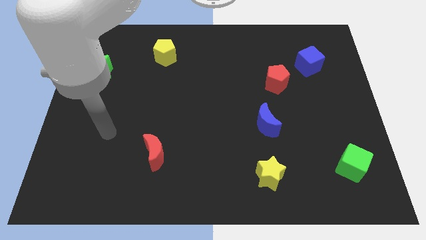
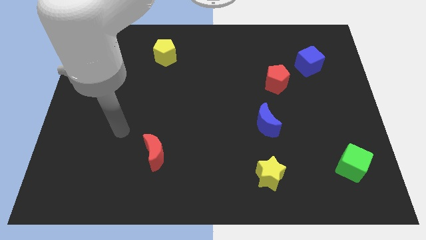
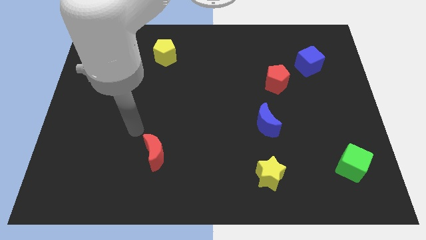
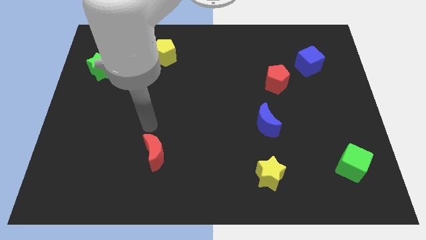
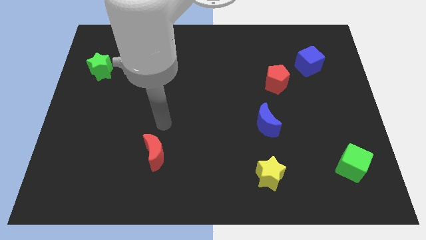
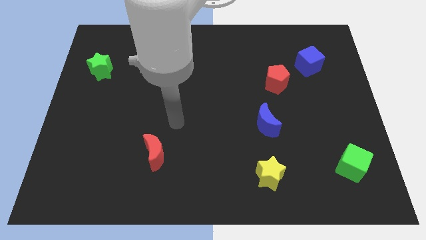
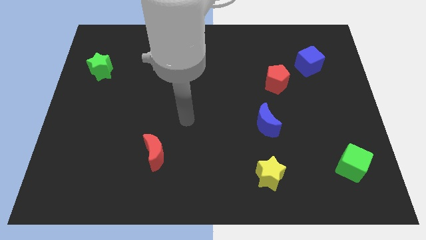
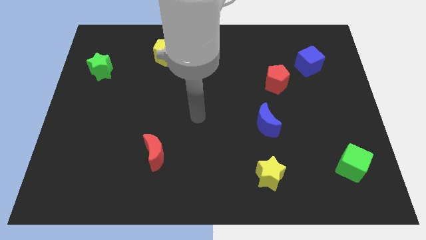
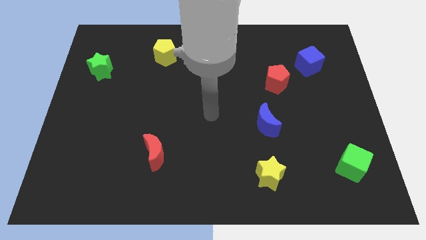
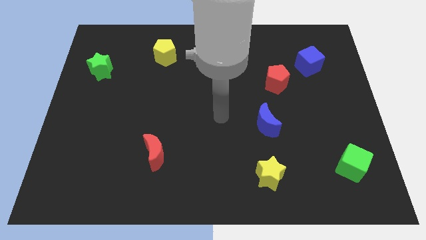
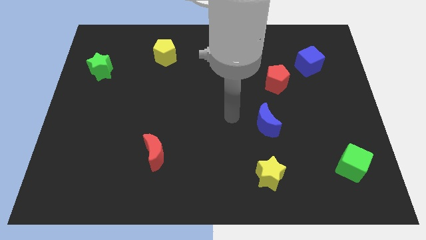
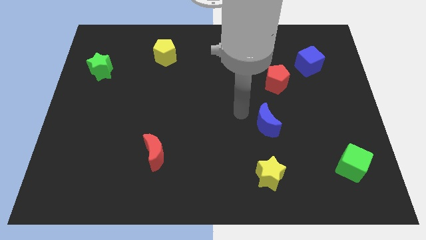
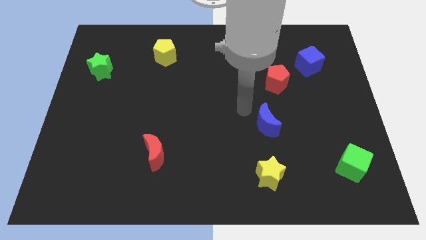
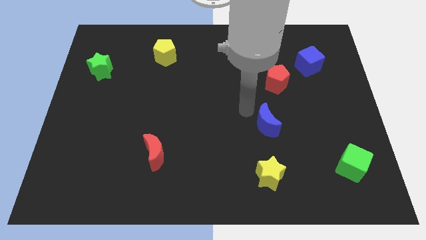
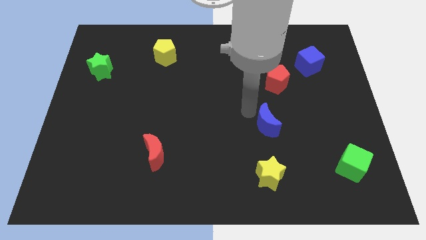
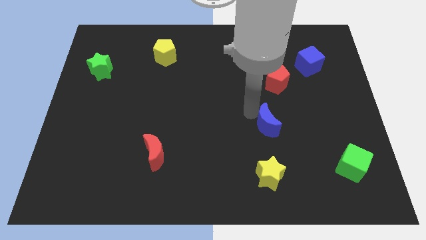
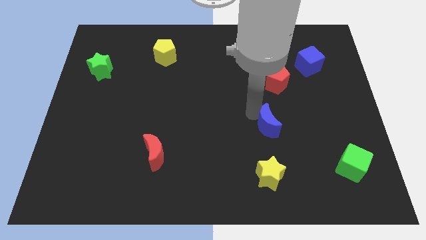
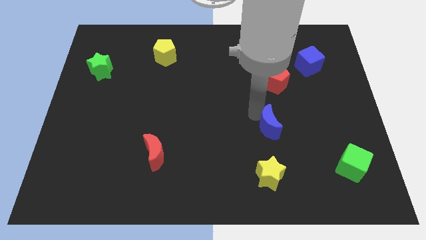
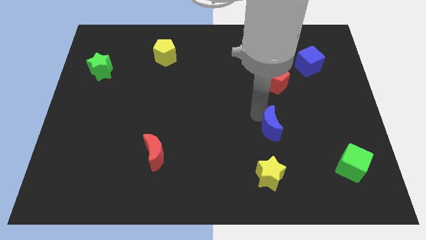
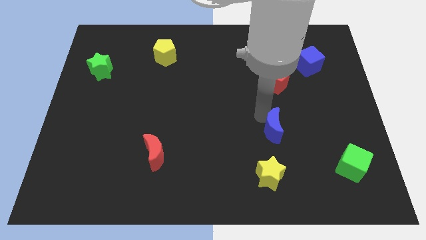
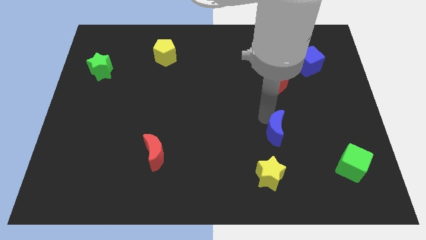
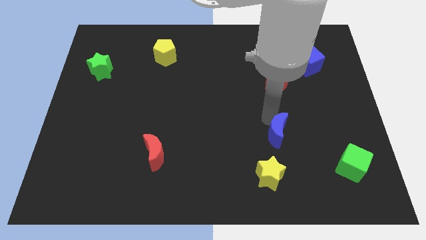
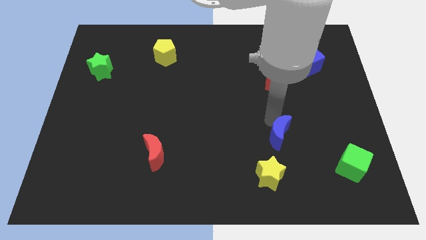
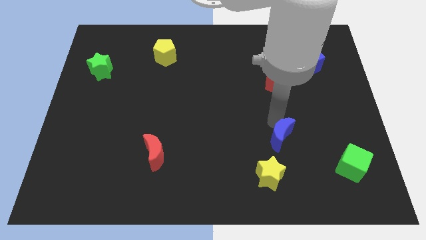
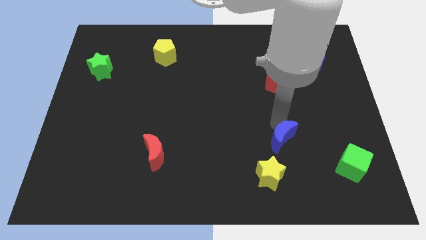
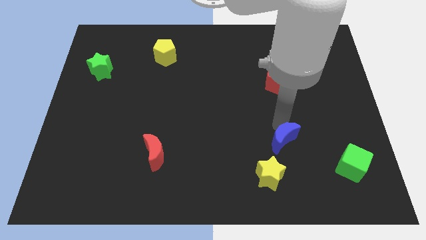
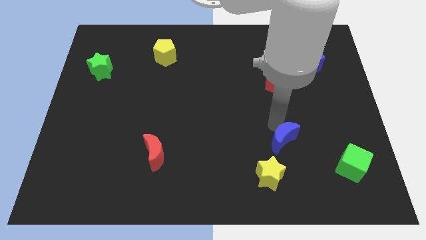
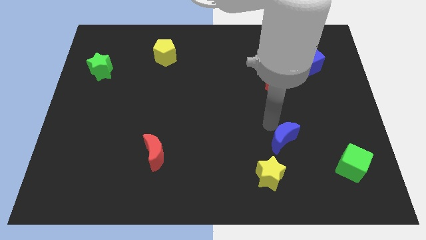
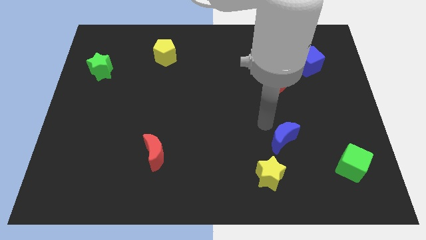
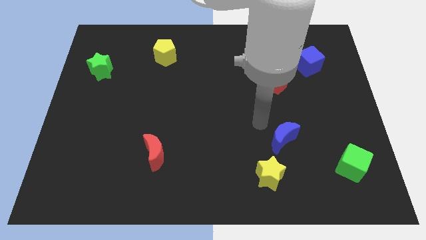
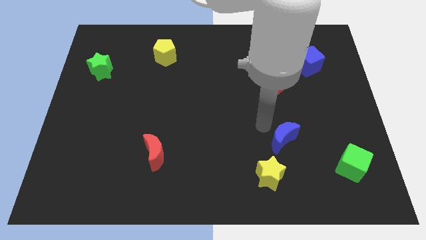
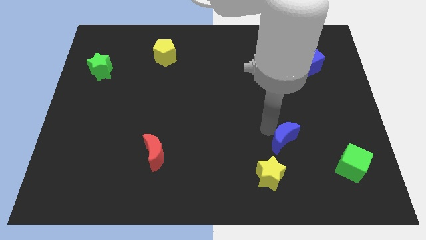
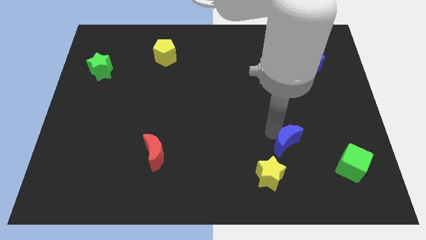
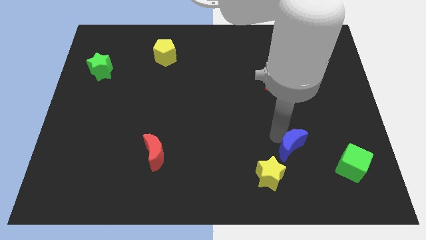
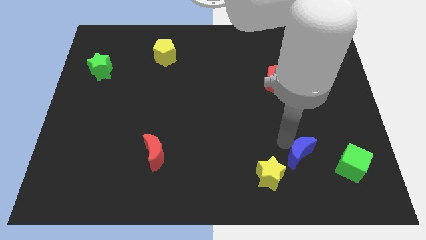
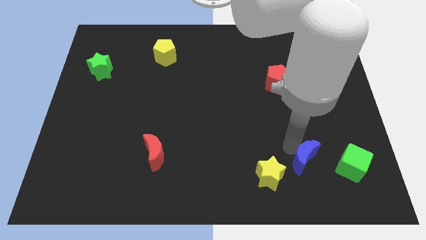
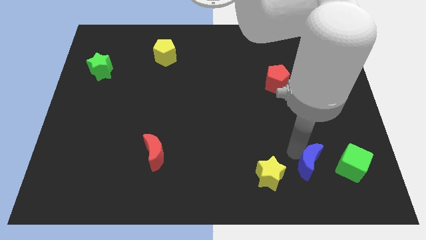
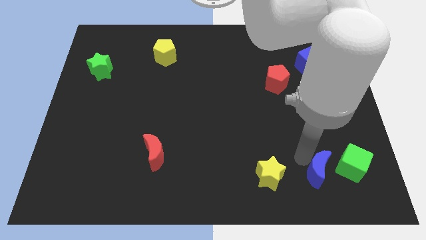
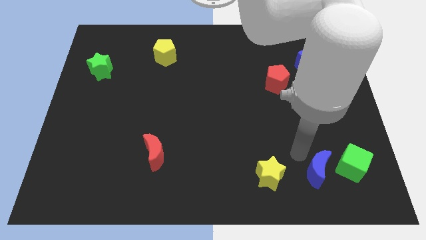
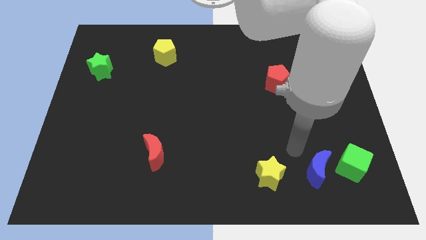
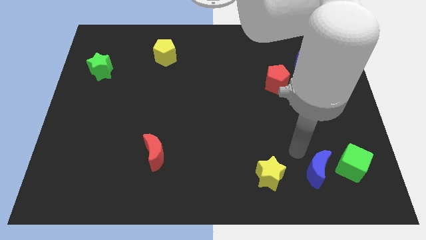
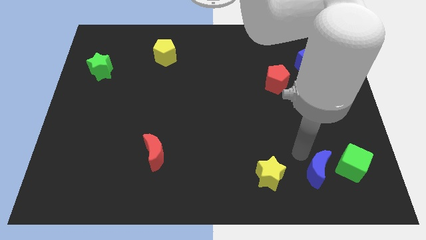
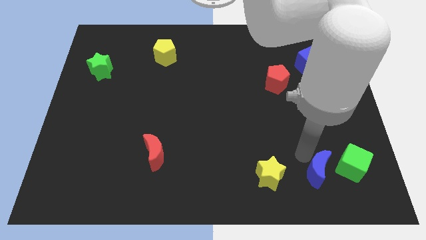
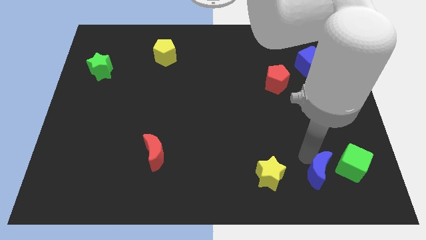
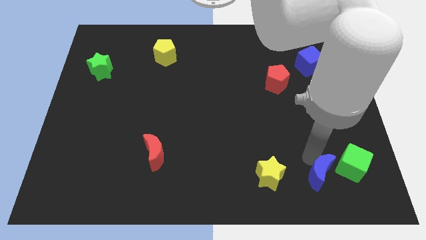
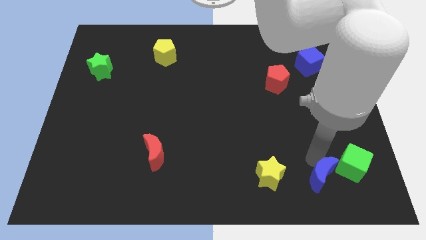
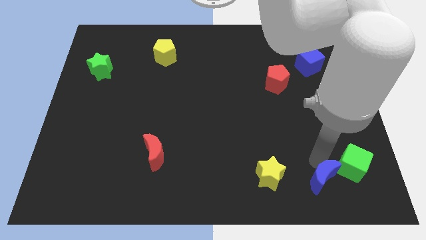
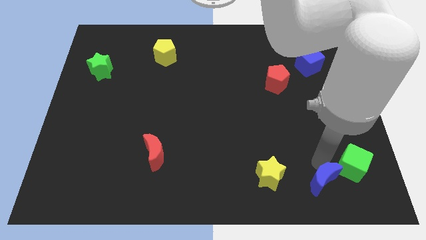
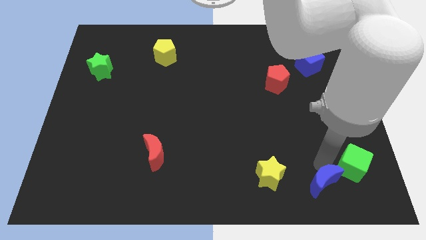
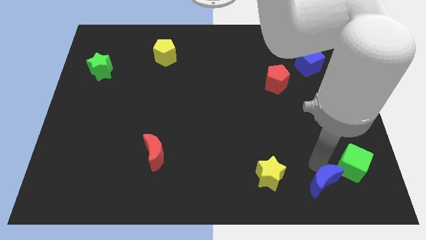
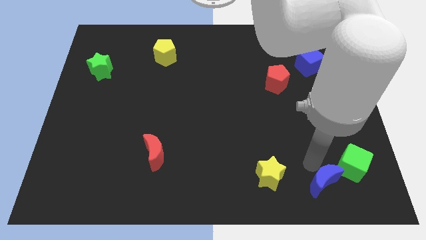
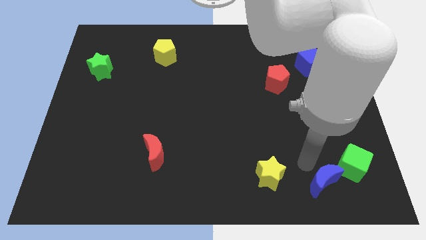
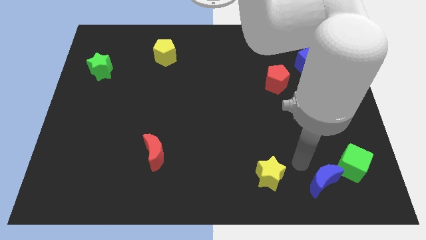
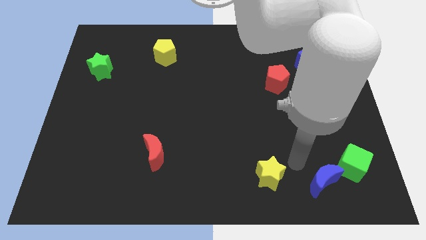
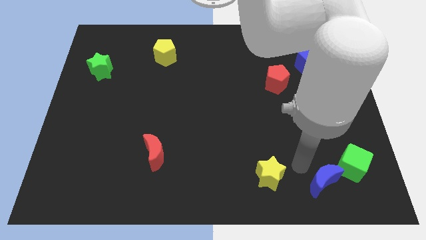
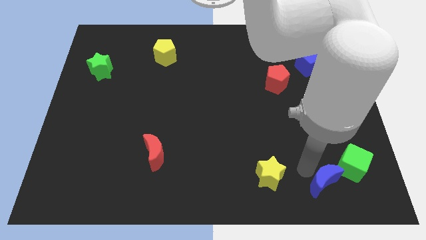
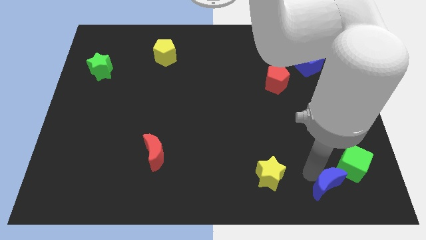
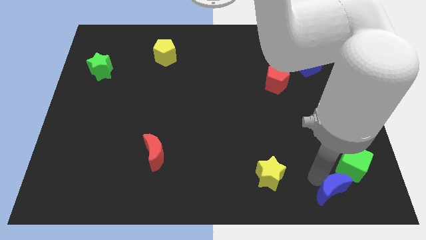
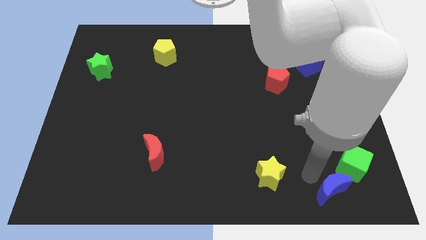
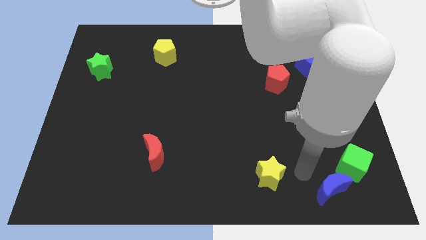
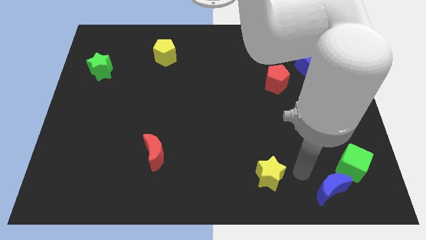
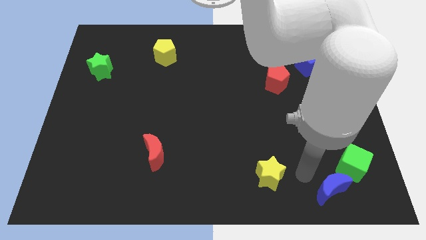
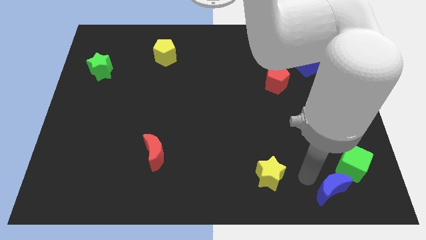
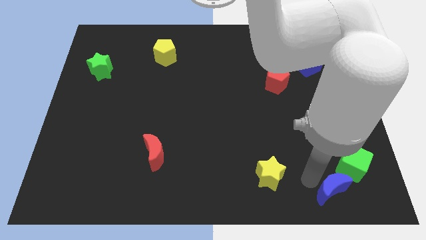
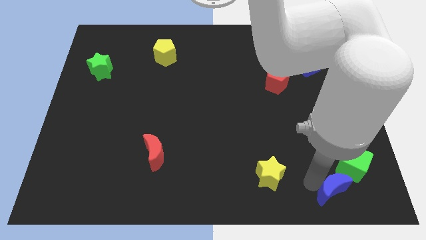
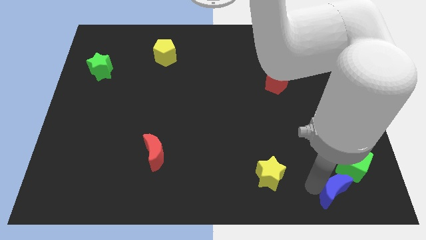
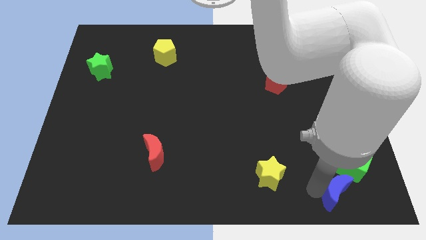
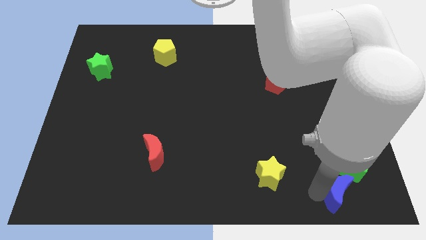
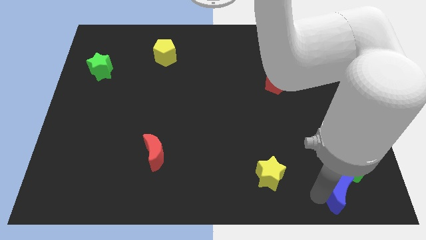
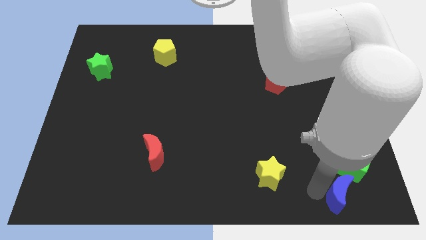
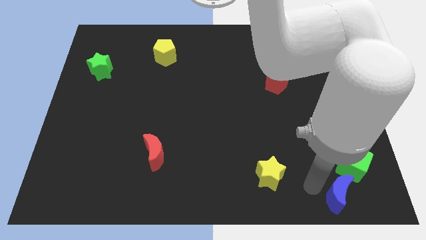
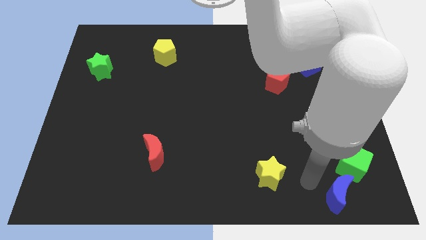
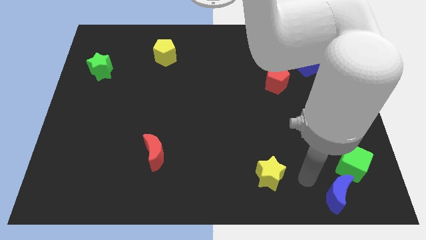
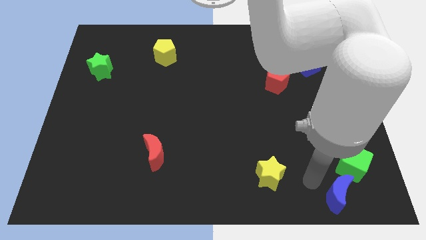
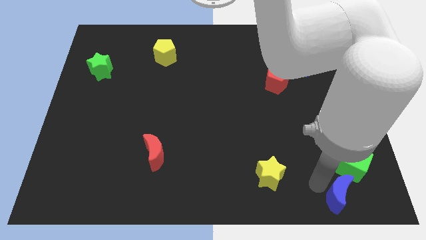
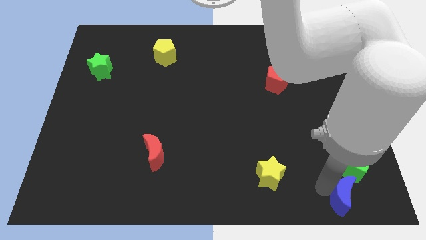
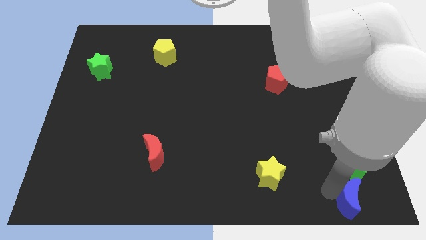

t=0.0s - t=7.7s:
slide the blue moon to the bottom right of the board
